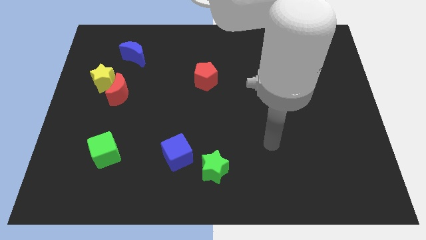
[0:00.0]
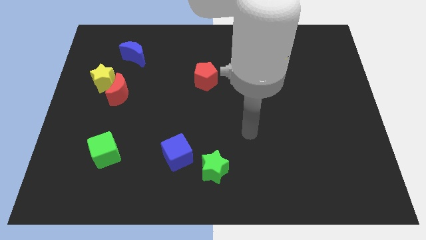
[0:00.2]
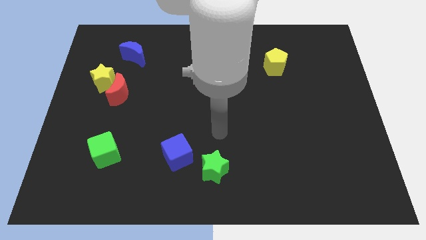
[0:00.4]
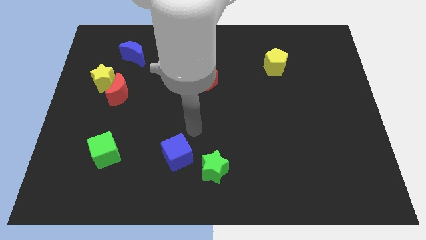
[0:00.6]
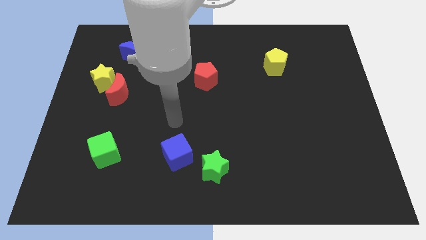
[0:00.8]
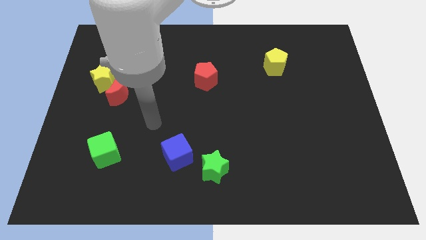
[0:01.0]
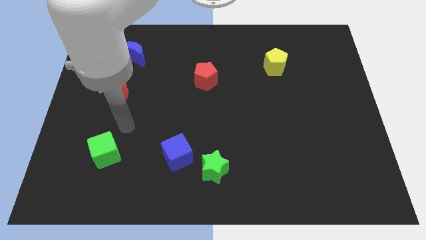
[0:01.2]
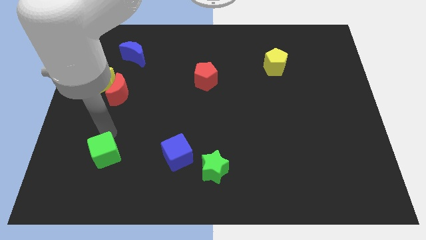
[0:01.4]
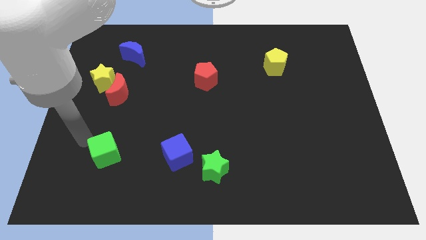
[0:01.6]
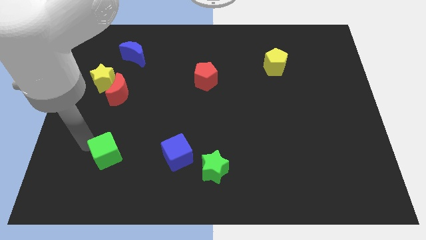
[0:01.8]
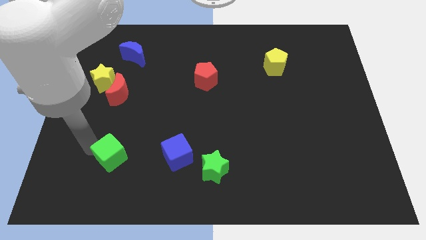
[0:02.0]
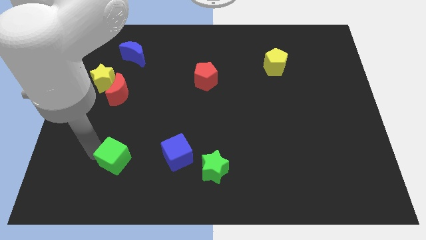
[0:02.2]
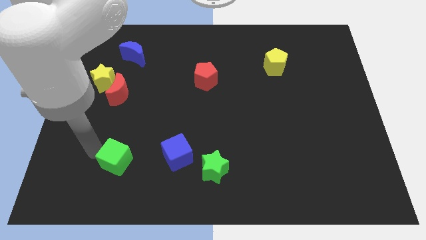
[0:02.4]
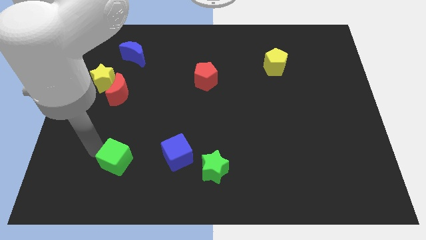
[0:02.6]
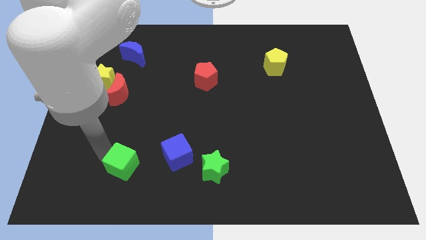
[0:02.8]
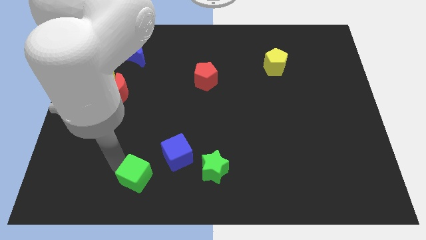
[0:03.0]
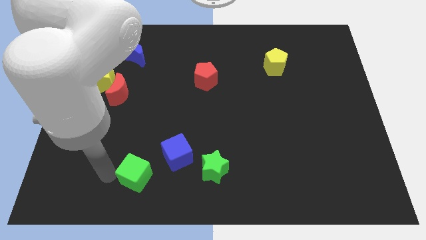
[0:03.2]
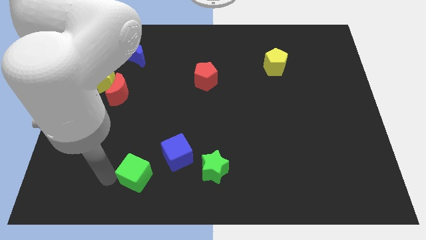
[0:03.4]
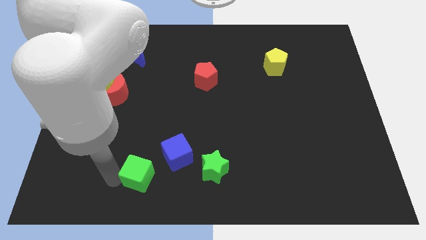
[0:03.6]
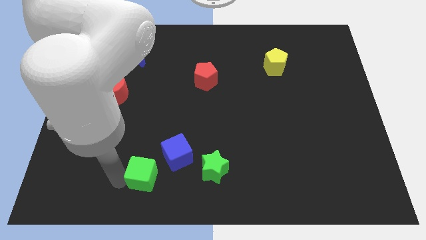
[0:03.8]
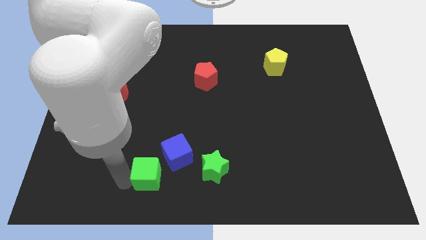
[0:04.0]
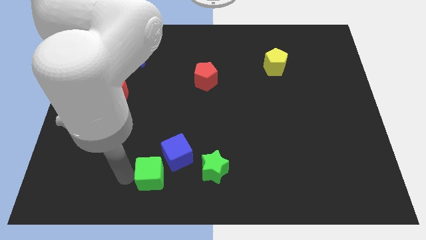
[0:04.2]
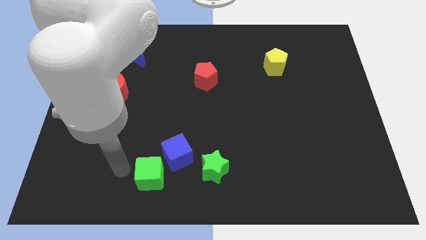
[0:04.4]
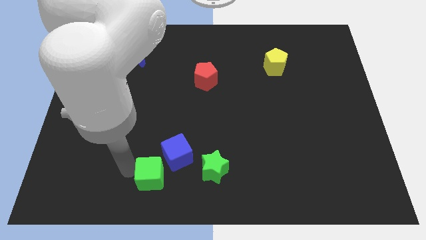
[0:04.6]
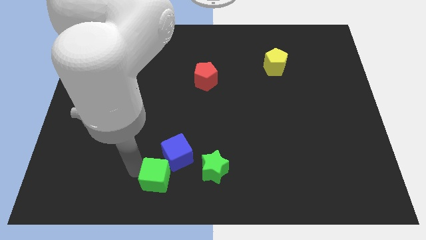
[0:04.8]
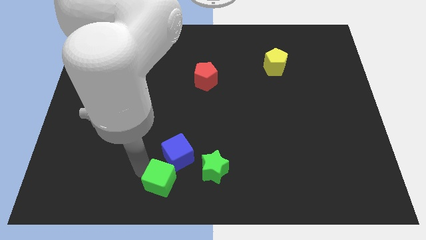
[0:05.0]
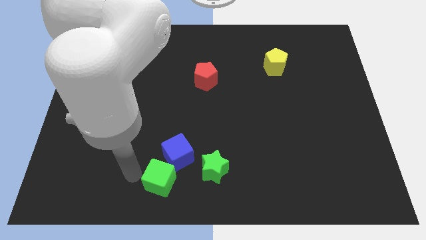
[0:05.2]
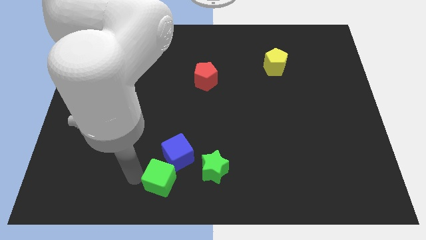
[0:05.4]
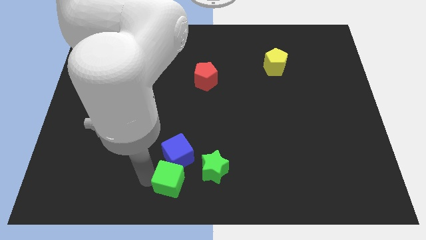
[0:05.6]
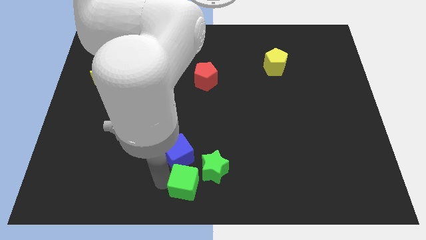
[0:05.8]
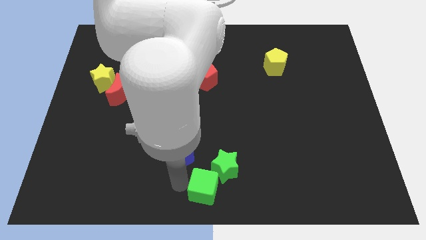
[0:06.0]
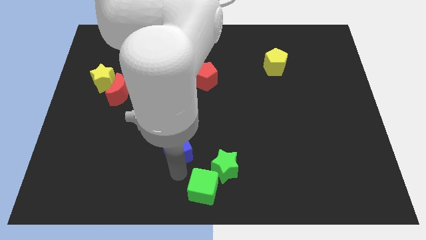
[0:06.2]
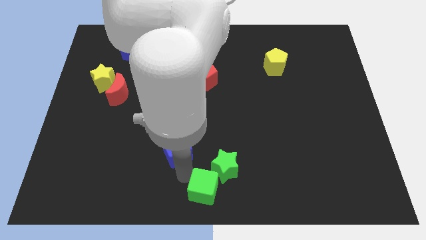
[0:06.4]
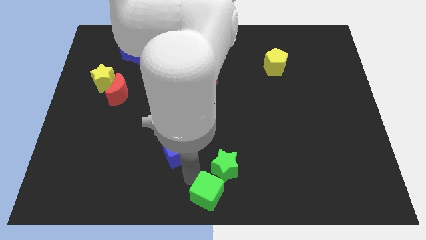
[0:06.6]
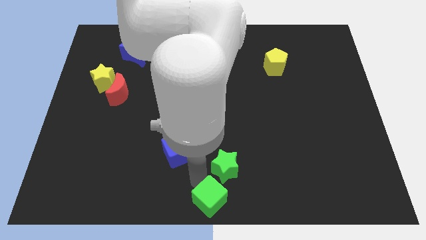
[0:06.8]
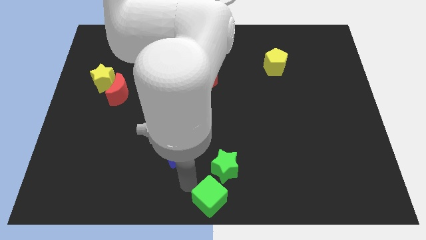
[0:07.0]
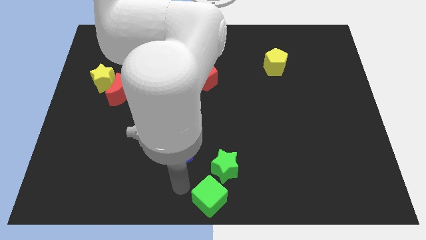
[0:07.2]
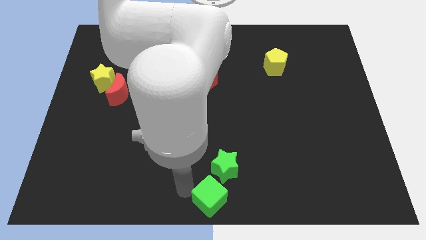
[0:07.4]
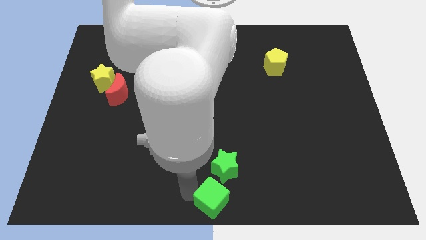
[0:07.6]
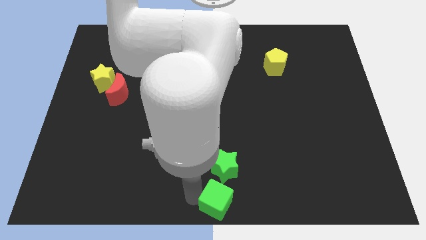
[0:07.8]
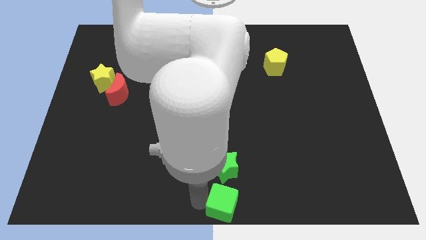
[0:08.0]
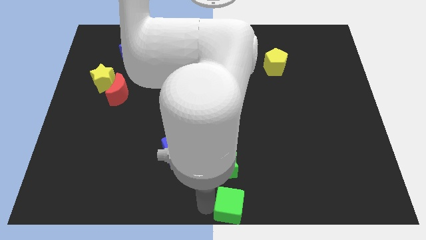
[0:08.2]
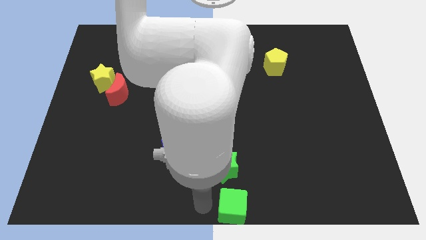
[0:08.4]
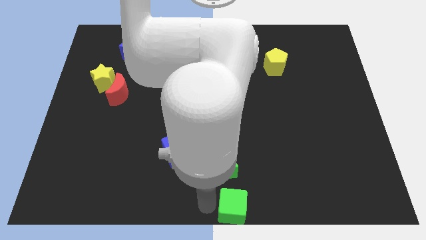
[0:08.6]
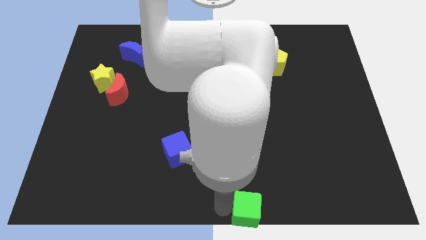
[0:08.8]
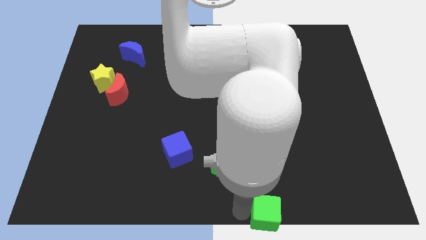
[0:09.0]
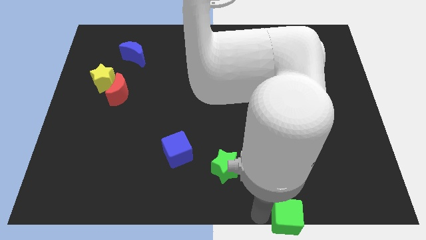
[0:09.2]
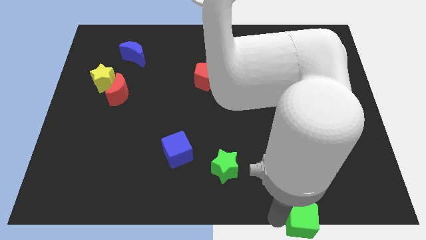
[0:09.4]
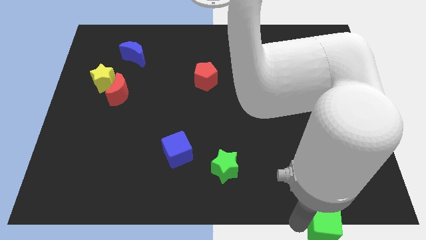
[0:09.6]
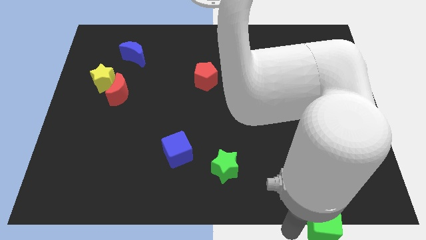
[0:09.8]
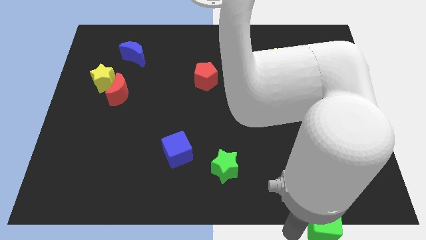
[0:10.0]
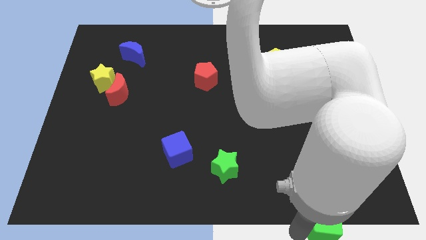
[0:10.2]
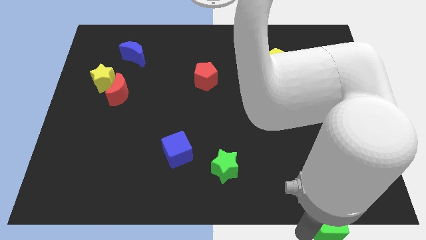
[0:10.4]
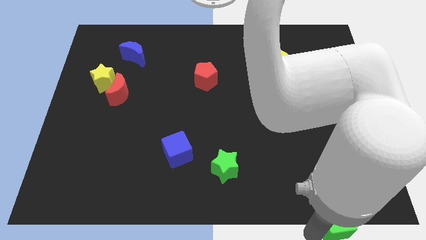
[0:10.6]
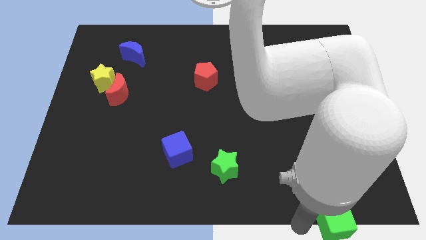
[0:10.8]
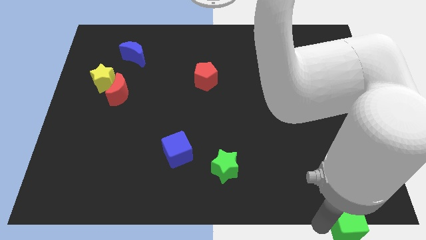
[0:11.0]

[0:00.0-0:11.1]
slide the green cube to the bottom right of the board

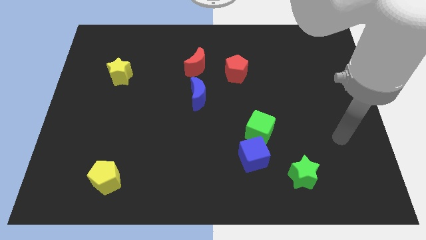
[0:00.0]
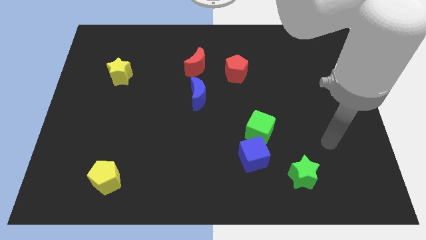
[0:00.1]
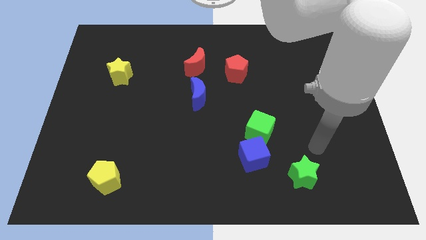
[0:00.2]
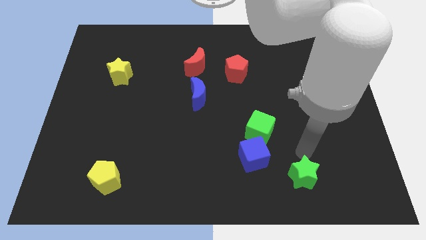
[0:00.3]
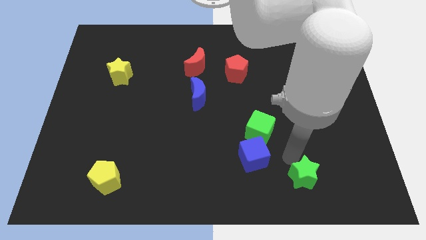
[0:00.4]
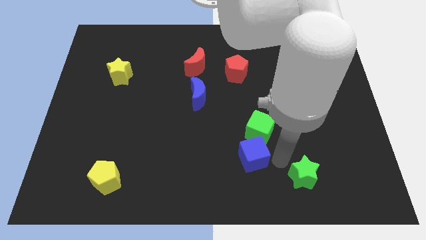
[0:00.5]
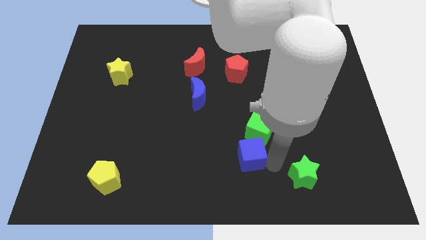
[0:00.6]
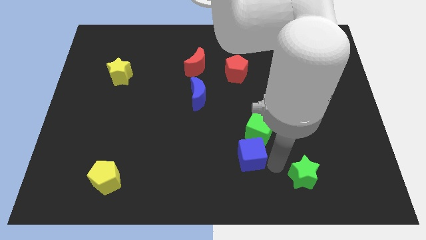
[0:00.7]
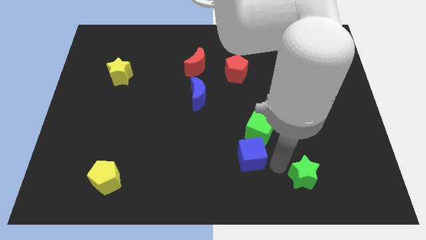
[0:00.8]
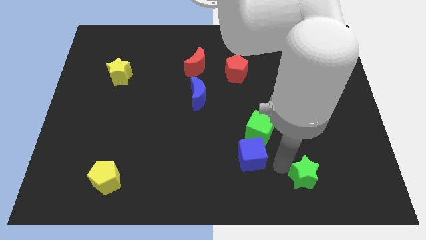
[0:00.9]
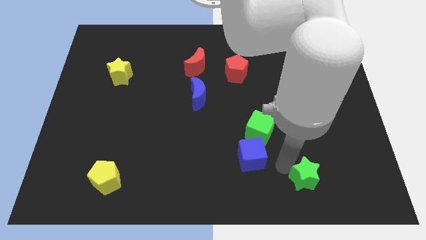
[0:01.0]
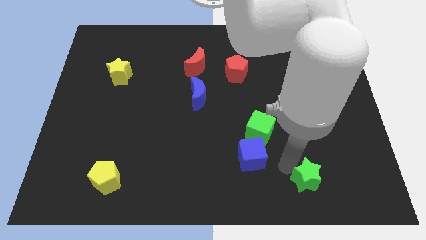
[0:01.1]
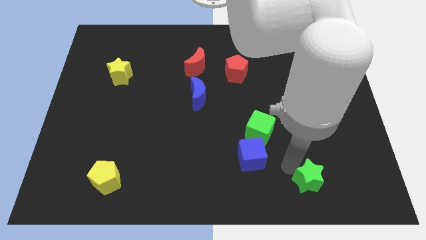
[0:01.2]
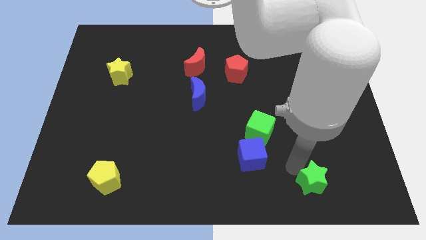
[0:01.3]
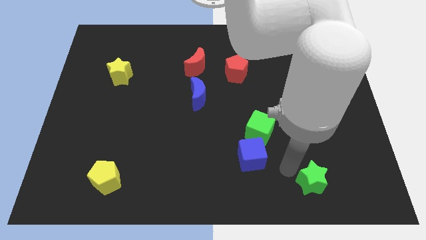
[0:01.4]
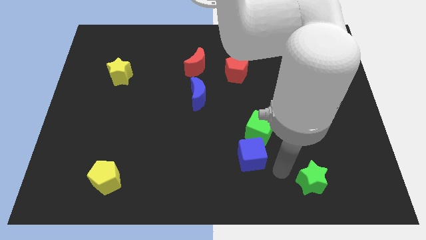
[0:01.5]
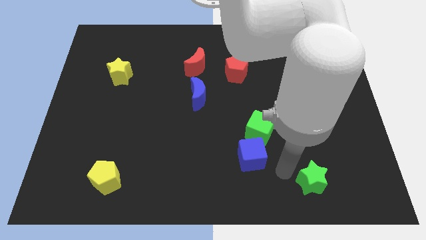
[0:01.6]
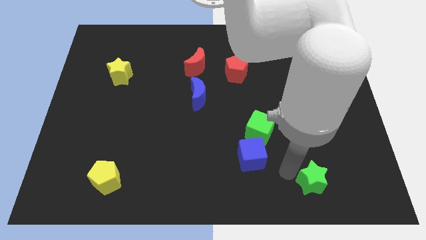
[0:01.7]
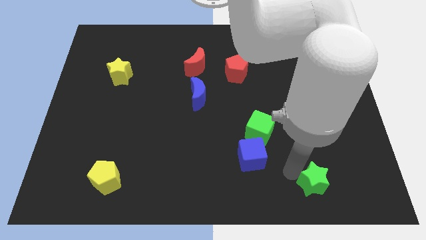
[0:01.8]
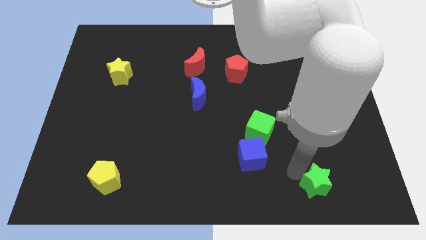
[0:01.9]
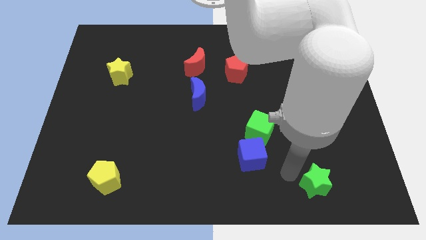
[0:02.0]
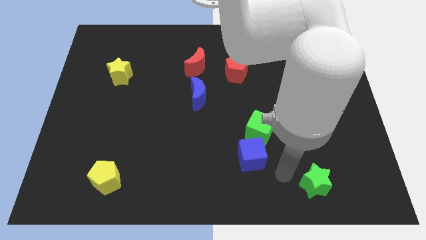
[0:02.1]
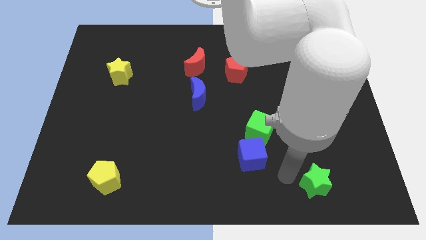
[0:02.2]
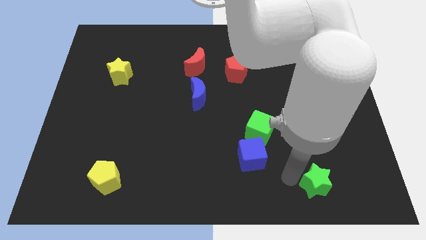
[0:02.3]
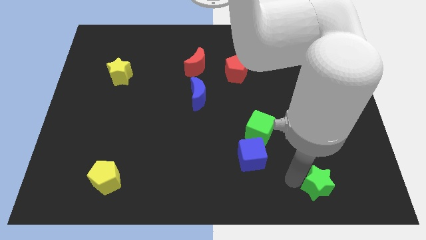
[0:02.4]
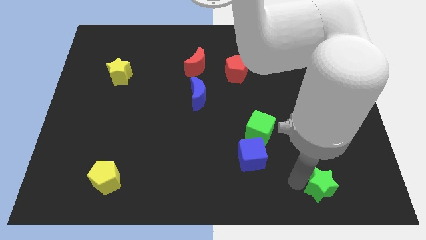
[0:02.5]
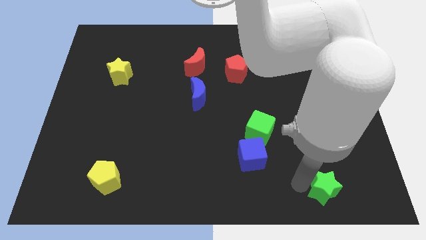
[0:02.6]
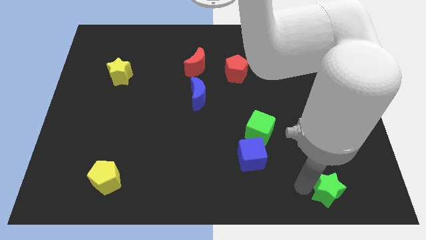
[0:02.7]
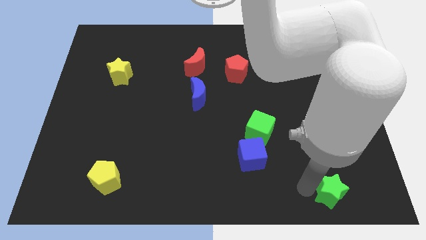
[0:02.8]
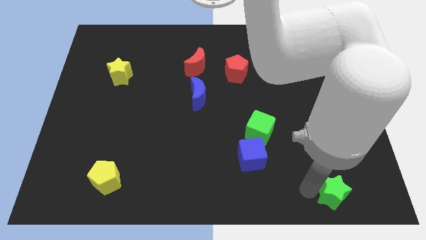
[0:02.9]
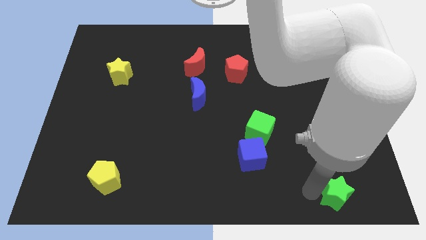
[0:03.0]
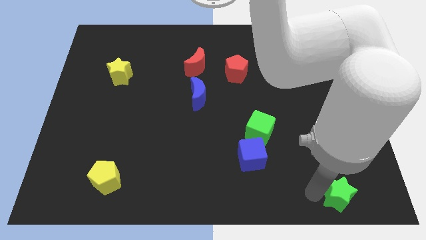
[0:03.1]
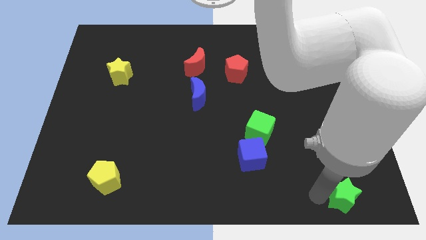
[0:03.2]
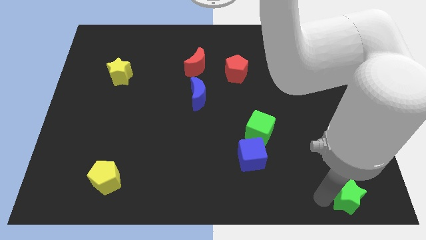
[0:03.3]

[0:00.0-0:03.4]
move the green star to the bottom right corner
